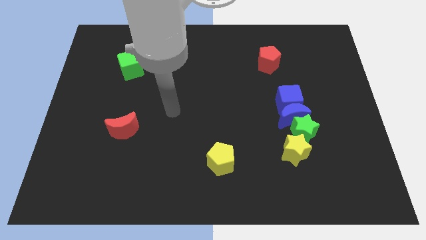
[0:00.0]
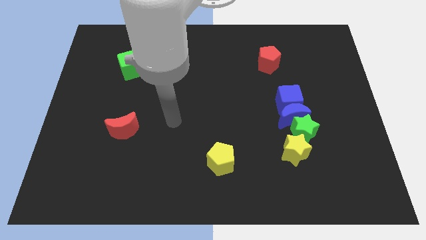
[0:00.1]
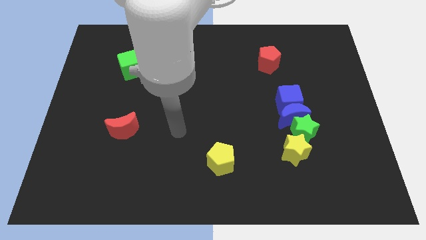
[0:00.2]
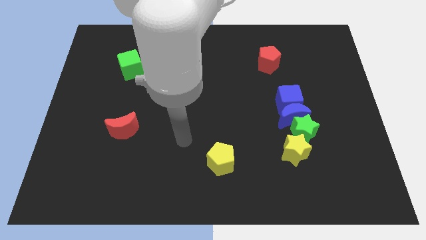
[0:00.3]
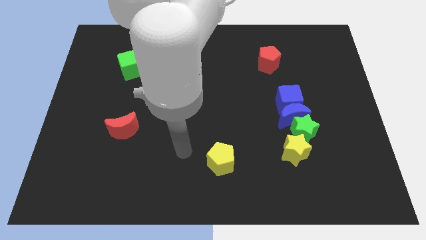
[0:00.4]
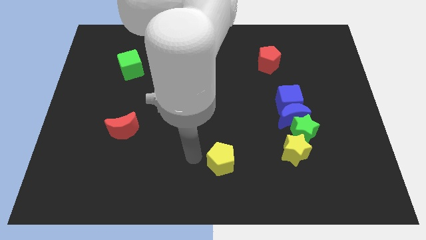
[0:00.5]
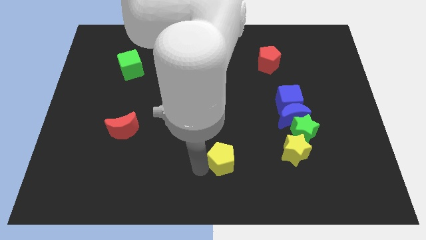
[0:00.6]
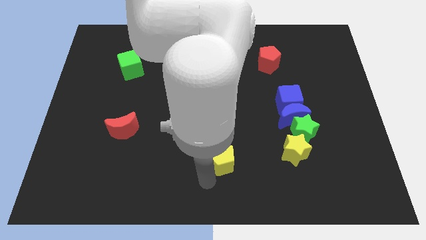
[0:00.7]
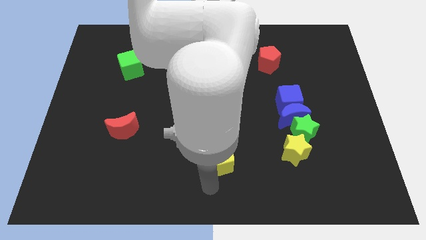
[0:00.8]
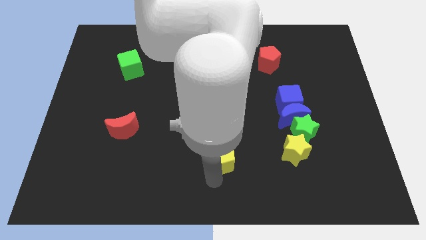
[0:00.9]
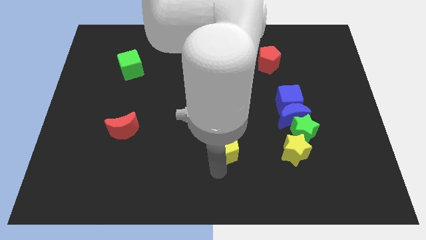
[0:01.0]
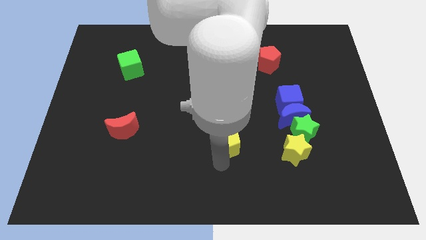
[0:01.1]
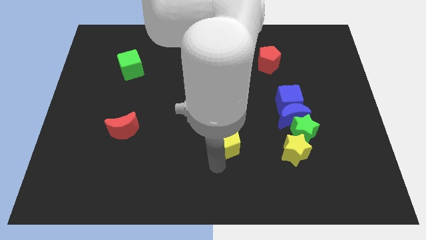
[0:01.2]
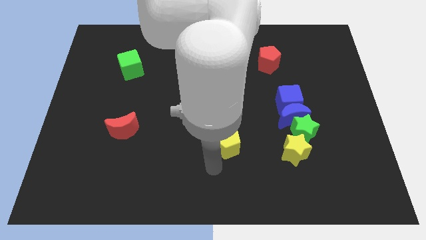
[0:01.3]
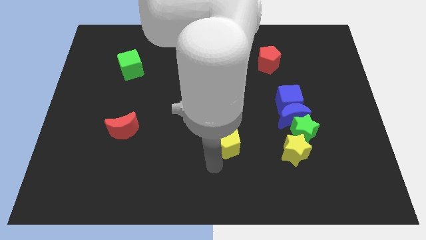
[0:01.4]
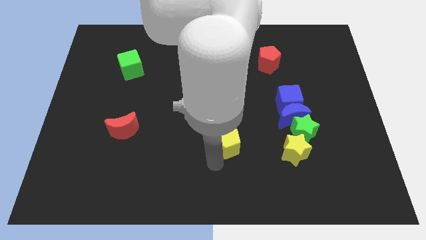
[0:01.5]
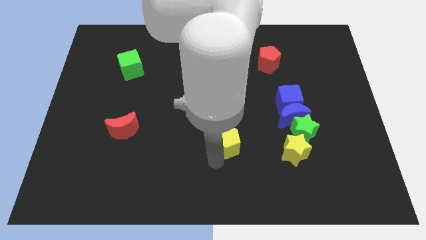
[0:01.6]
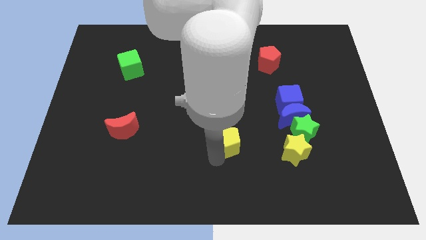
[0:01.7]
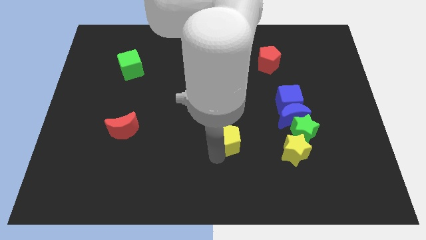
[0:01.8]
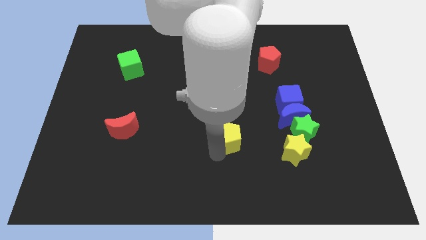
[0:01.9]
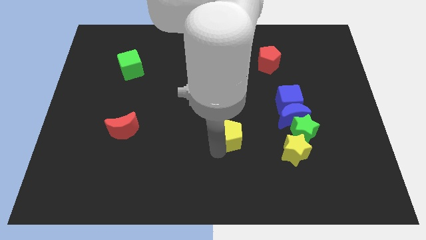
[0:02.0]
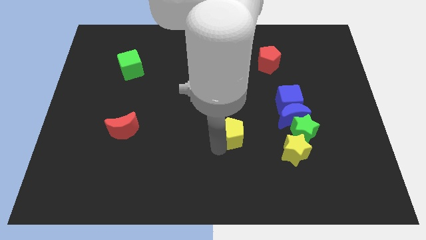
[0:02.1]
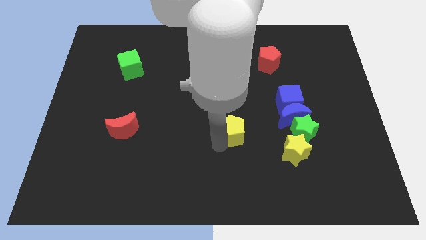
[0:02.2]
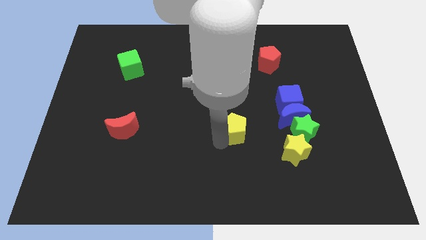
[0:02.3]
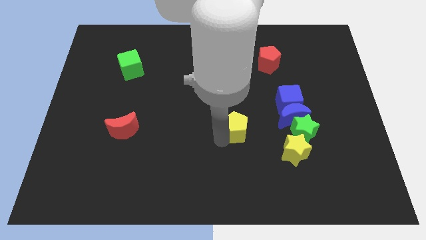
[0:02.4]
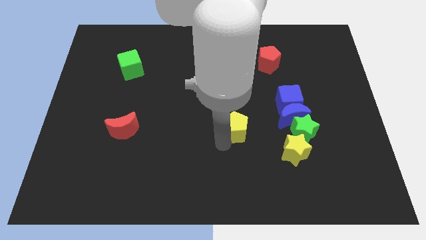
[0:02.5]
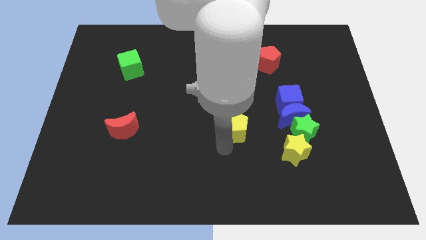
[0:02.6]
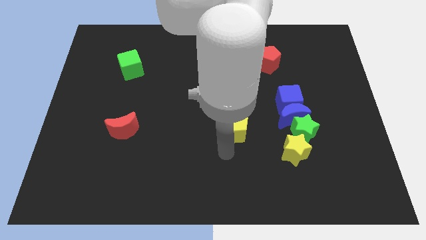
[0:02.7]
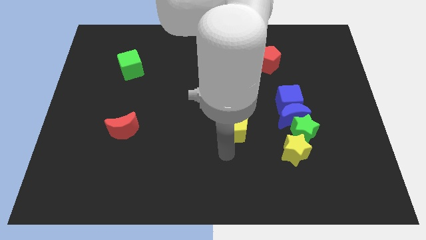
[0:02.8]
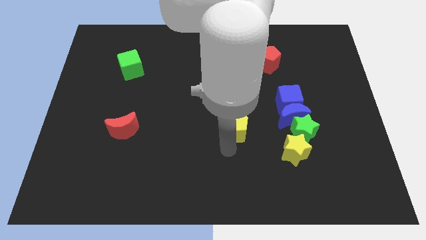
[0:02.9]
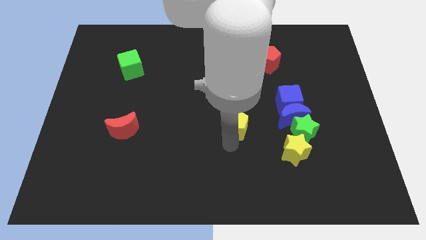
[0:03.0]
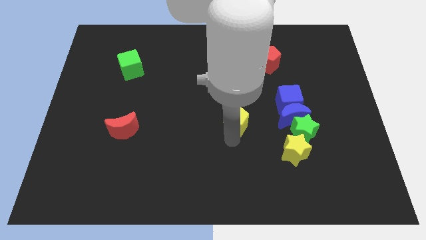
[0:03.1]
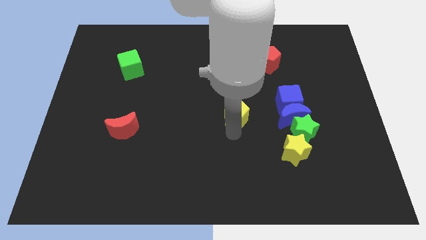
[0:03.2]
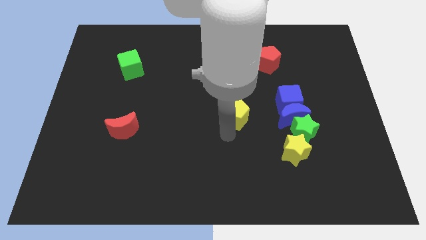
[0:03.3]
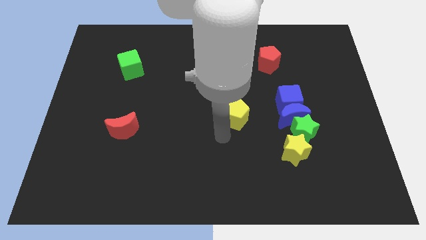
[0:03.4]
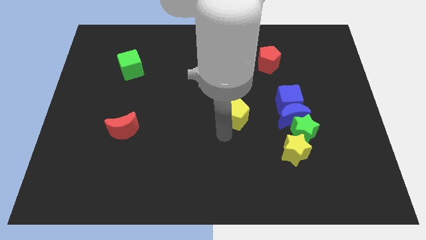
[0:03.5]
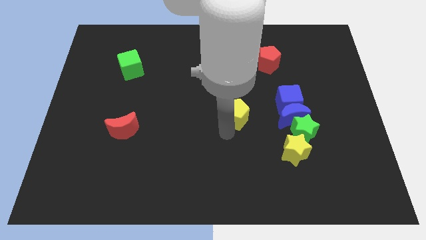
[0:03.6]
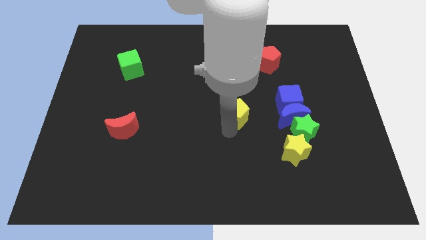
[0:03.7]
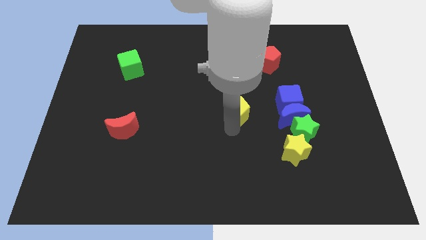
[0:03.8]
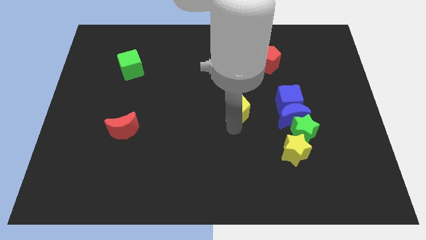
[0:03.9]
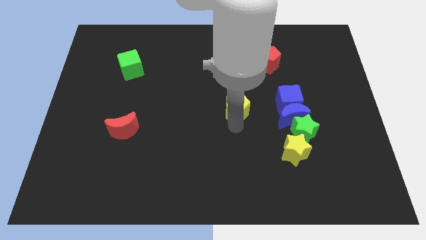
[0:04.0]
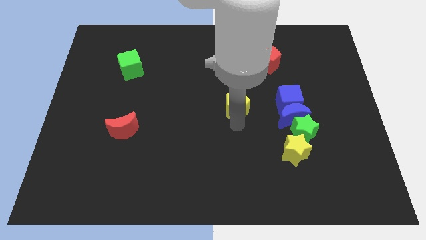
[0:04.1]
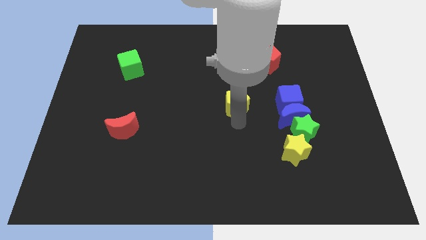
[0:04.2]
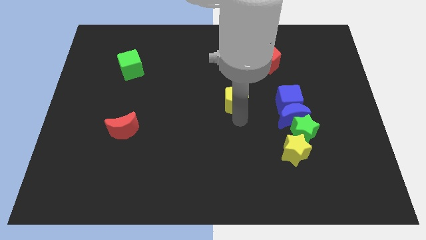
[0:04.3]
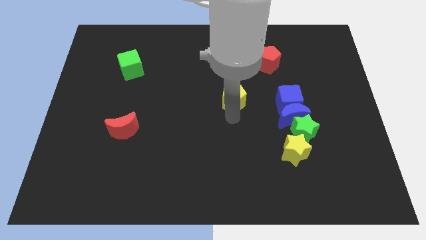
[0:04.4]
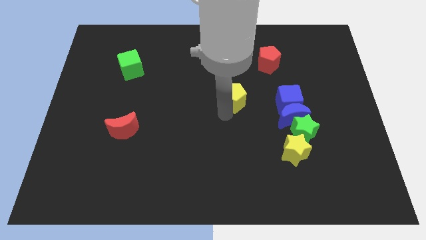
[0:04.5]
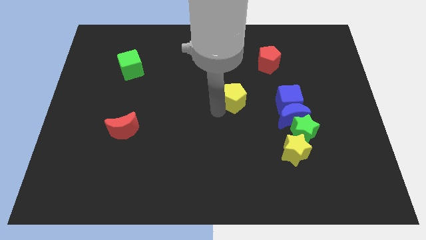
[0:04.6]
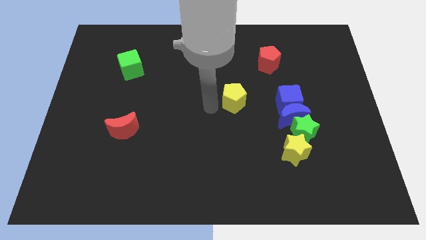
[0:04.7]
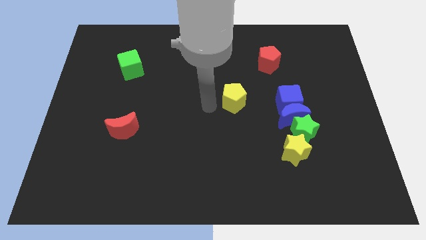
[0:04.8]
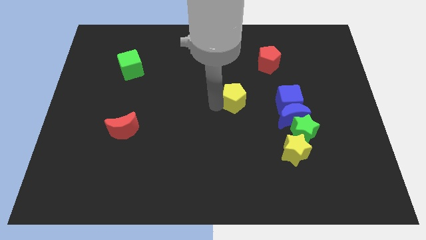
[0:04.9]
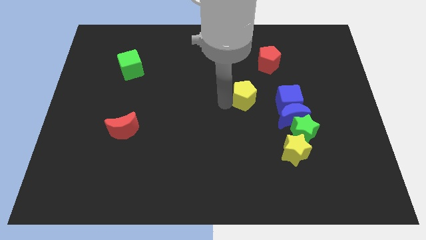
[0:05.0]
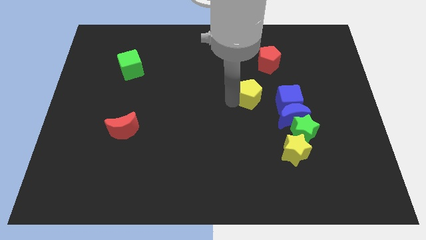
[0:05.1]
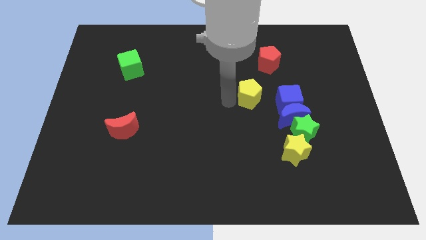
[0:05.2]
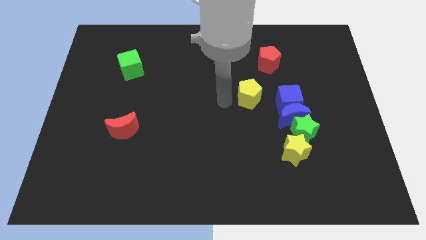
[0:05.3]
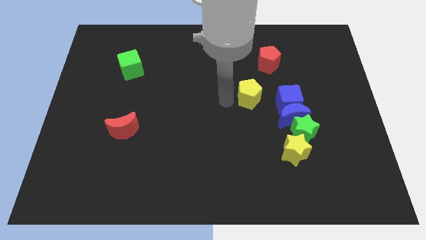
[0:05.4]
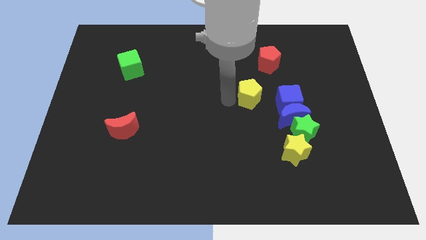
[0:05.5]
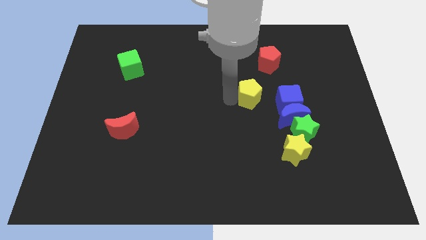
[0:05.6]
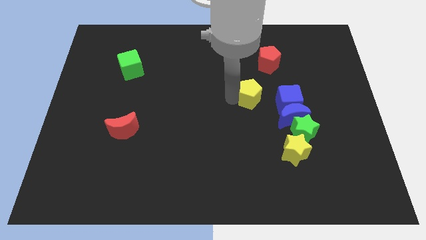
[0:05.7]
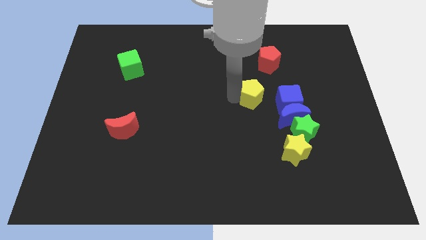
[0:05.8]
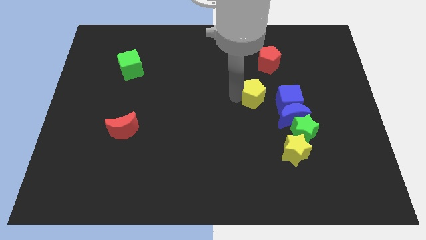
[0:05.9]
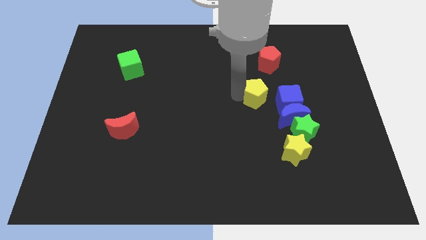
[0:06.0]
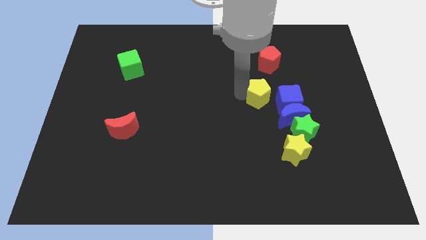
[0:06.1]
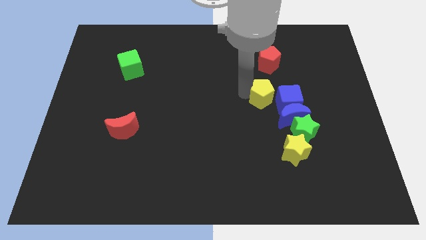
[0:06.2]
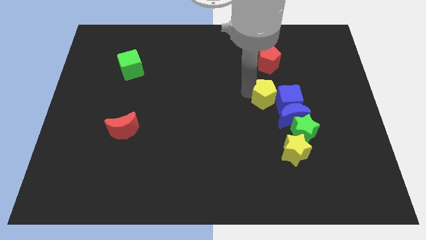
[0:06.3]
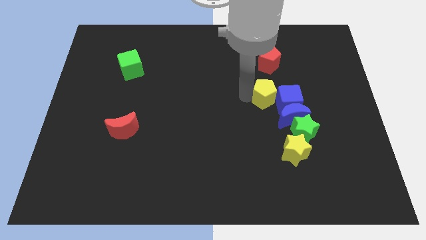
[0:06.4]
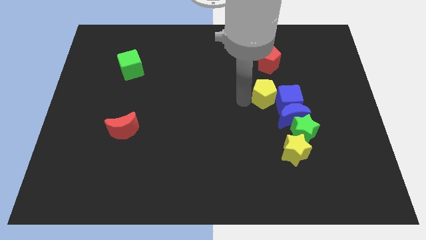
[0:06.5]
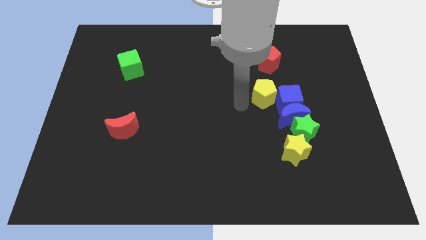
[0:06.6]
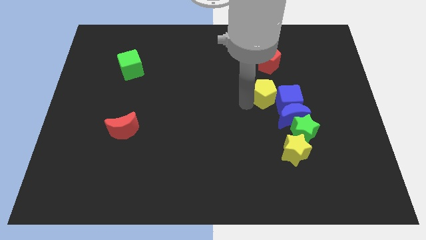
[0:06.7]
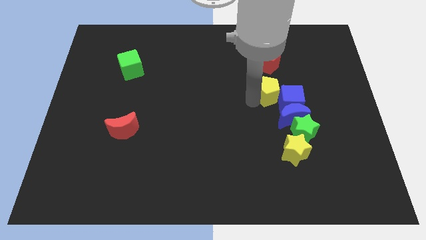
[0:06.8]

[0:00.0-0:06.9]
push the yellow pentagon diagonally upwards and right

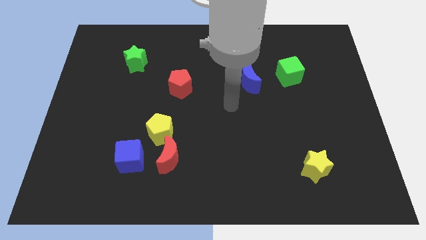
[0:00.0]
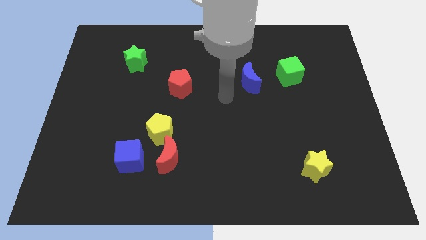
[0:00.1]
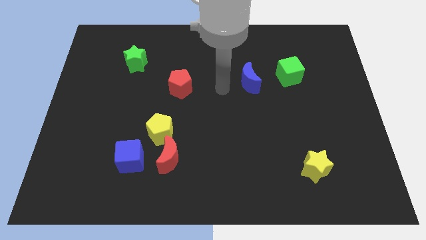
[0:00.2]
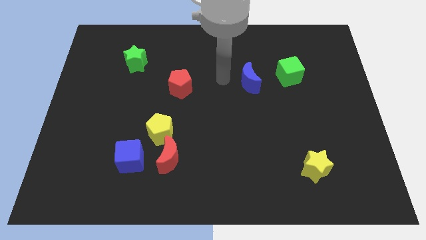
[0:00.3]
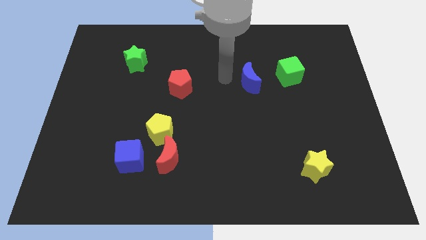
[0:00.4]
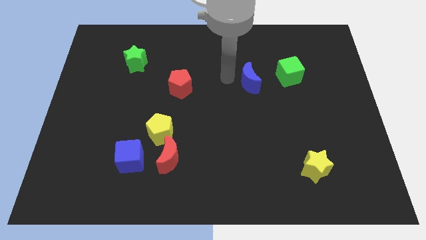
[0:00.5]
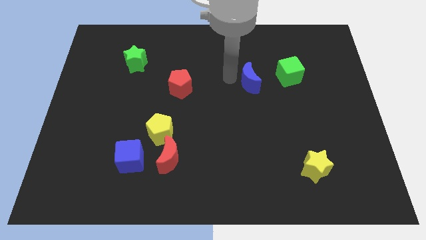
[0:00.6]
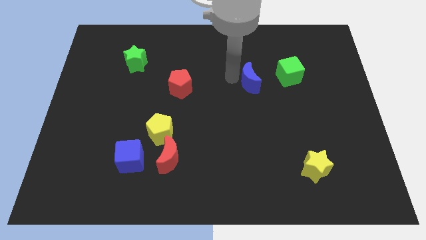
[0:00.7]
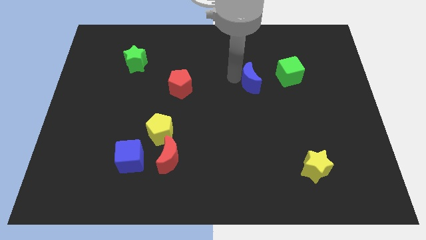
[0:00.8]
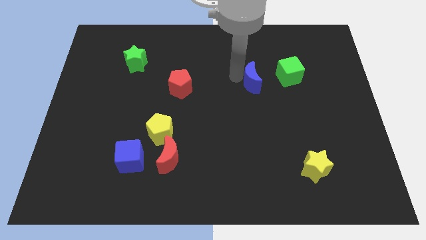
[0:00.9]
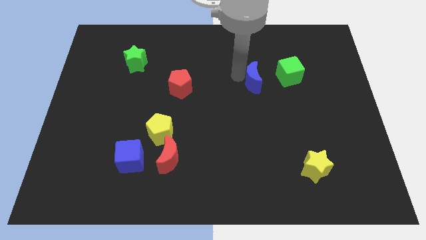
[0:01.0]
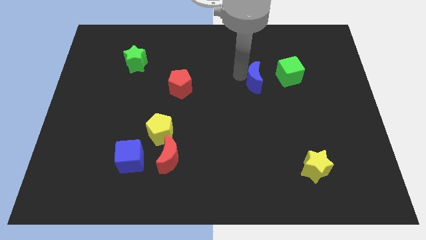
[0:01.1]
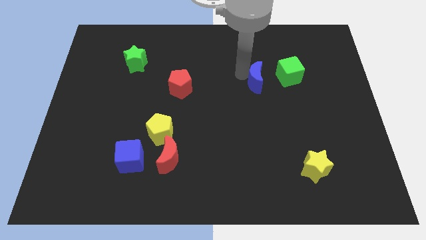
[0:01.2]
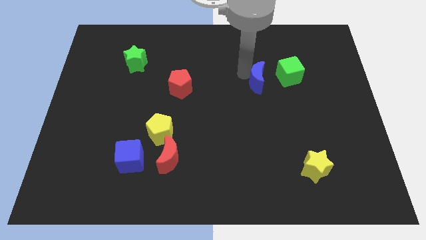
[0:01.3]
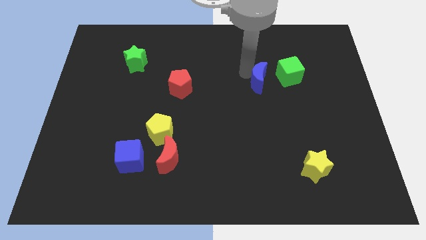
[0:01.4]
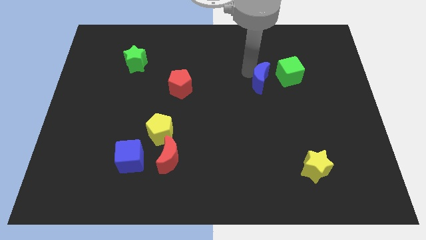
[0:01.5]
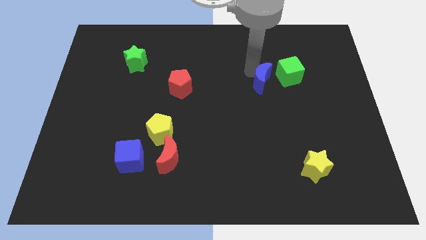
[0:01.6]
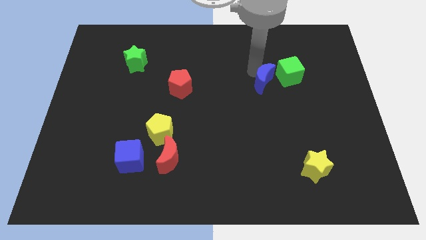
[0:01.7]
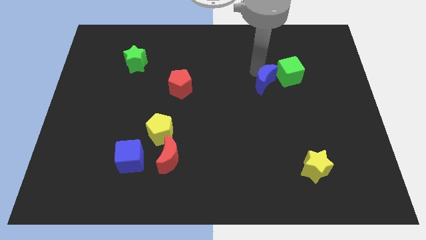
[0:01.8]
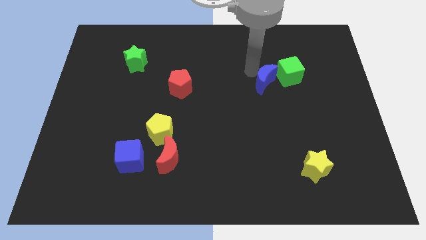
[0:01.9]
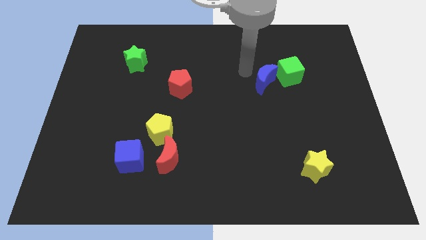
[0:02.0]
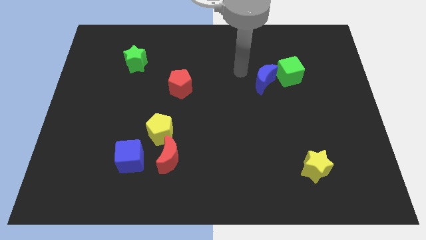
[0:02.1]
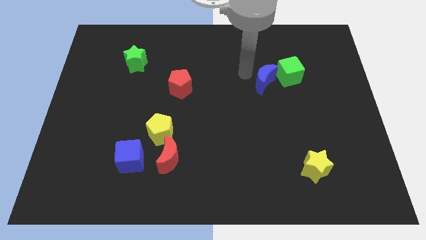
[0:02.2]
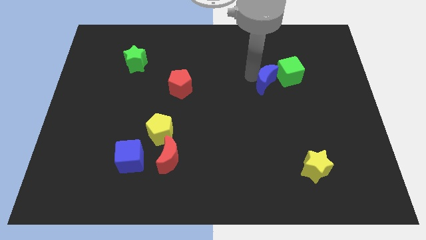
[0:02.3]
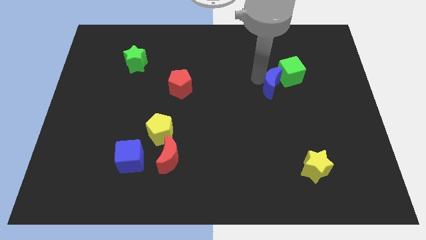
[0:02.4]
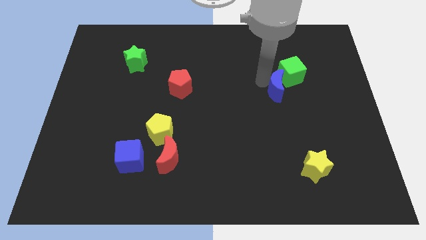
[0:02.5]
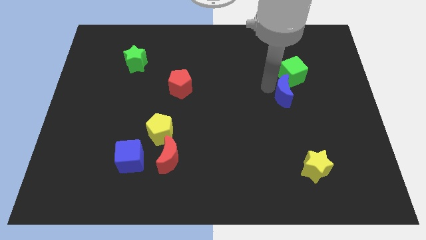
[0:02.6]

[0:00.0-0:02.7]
slide the blue moon to the right a little bit
